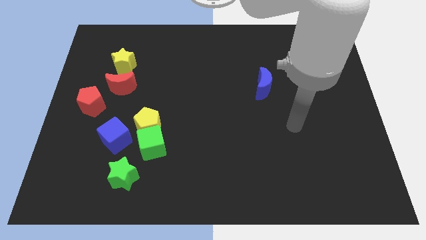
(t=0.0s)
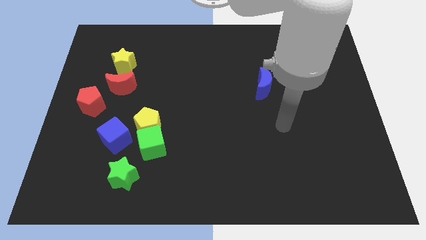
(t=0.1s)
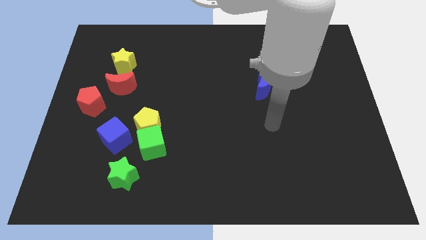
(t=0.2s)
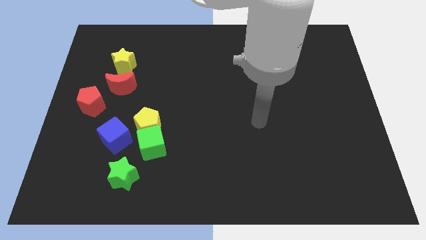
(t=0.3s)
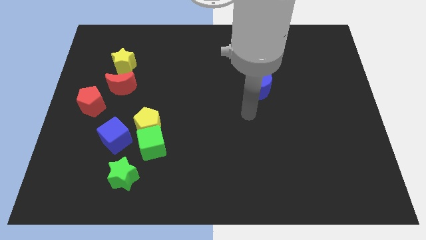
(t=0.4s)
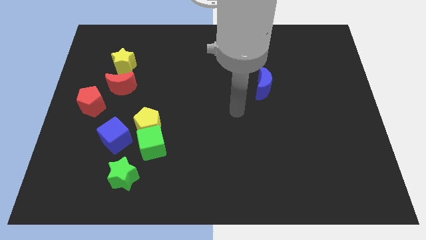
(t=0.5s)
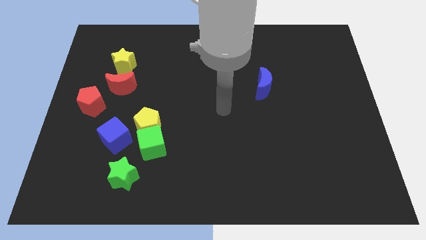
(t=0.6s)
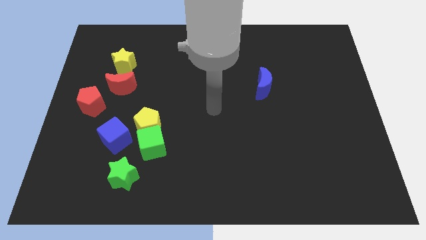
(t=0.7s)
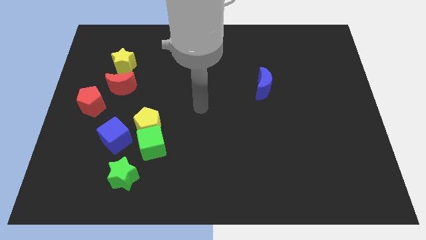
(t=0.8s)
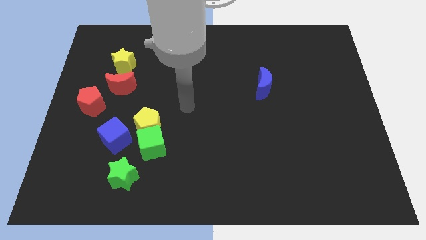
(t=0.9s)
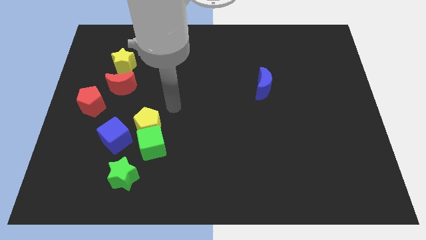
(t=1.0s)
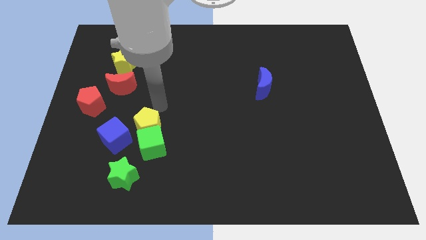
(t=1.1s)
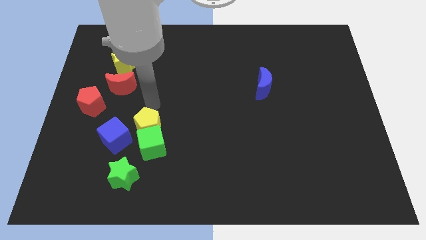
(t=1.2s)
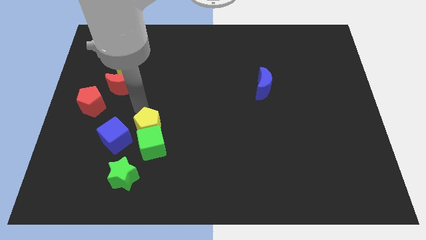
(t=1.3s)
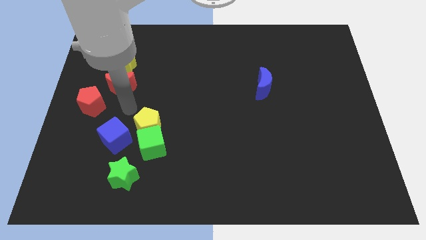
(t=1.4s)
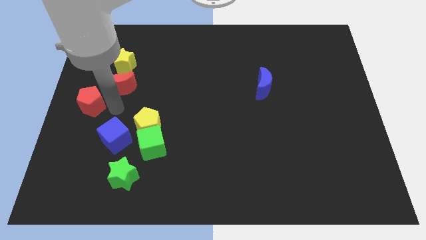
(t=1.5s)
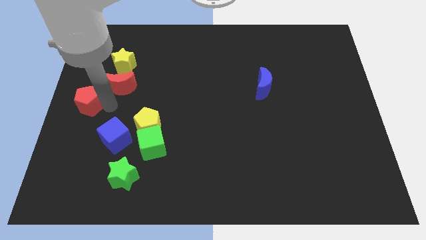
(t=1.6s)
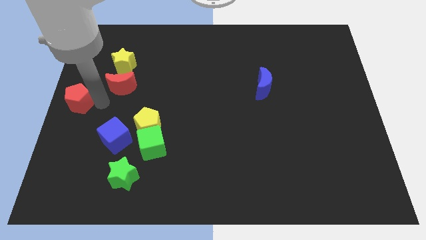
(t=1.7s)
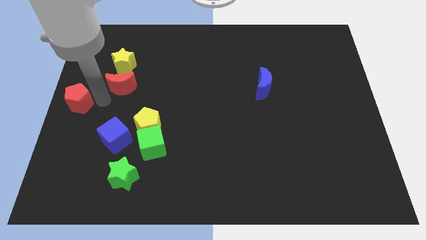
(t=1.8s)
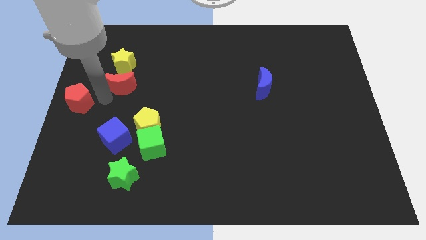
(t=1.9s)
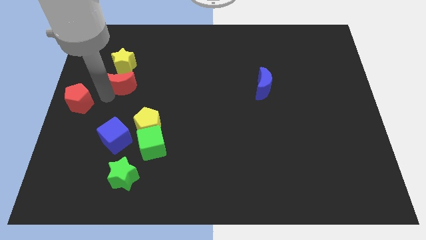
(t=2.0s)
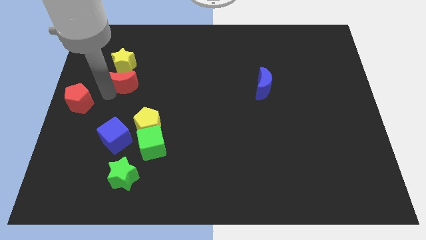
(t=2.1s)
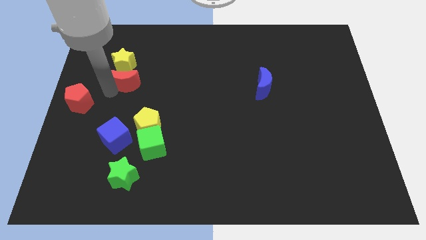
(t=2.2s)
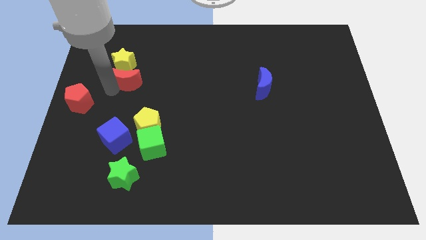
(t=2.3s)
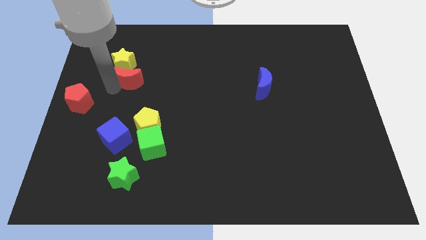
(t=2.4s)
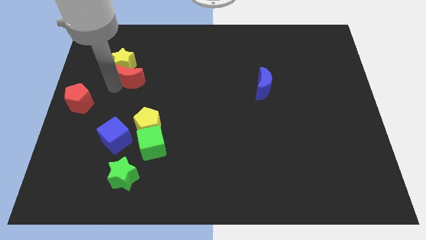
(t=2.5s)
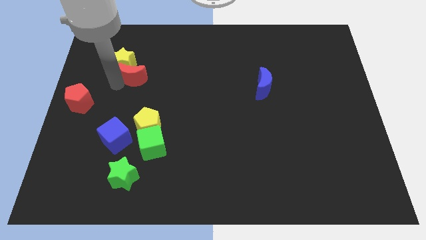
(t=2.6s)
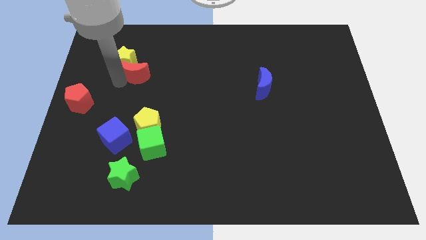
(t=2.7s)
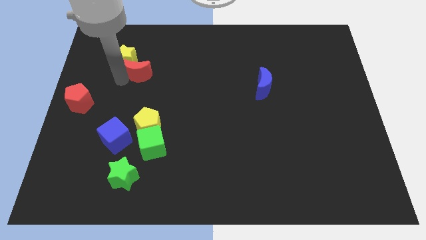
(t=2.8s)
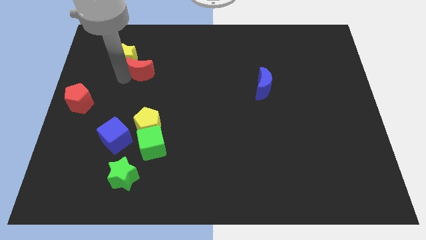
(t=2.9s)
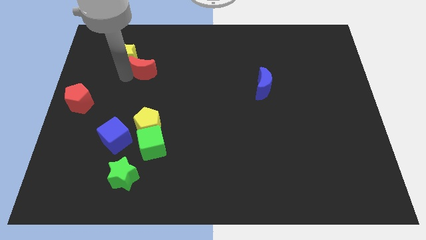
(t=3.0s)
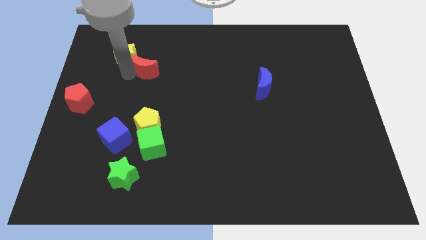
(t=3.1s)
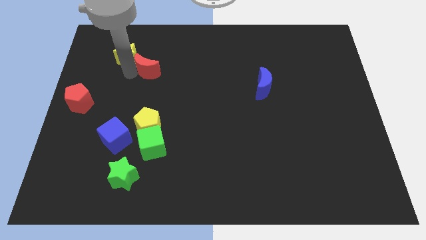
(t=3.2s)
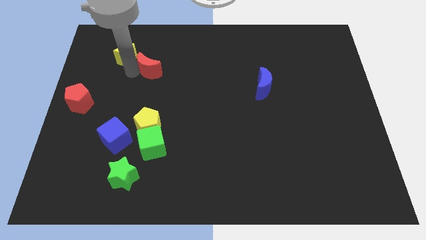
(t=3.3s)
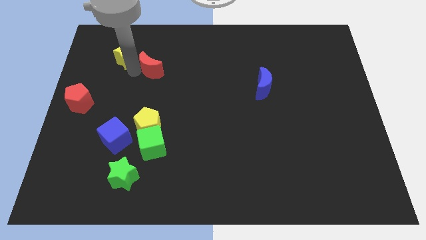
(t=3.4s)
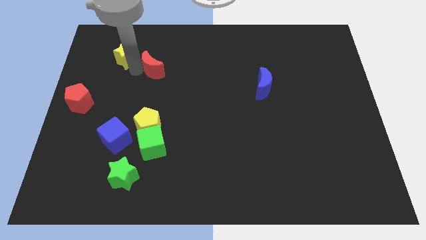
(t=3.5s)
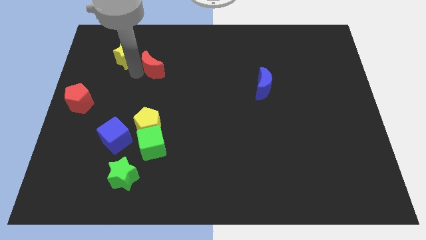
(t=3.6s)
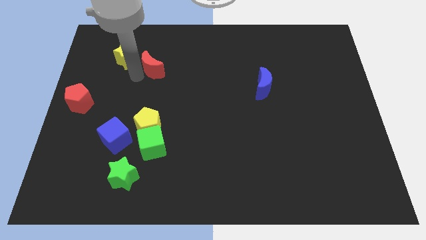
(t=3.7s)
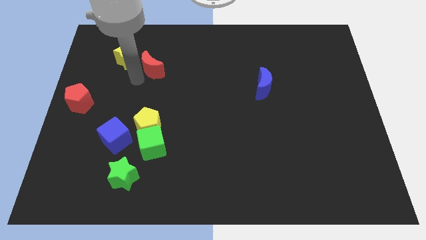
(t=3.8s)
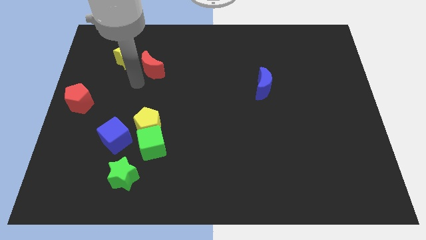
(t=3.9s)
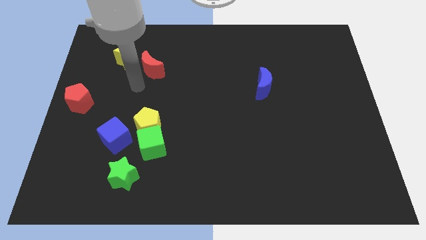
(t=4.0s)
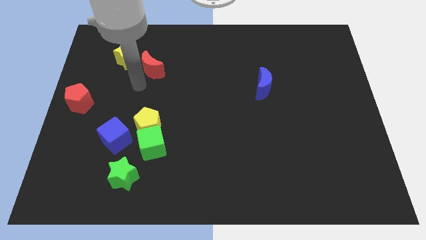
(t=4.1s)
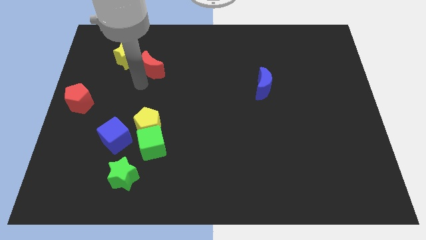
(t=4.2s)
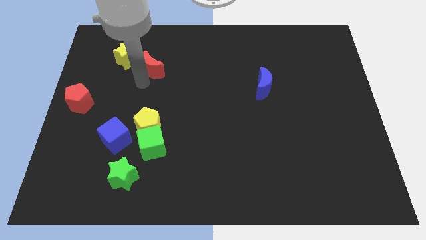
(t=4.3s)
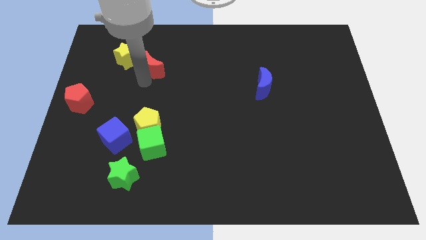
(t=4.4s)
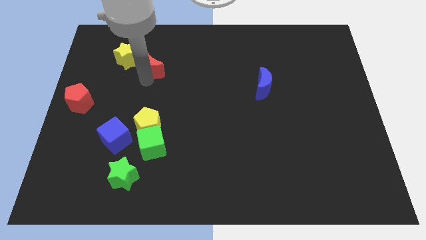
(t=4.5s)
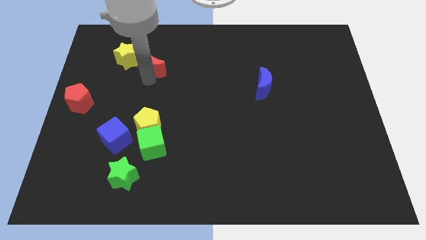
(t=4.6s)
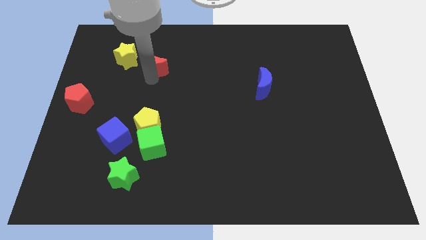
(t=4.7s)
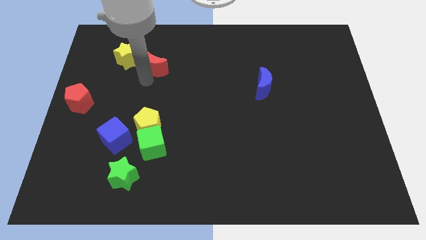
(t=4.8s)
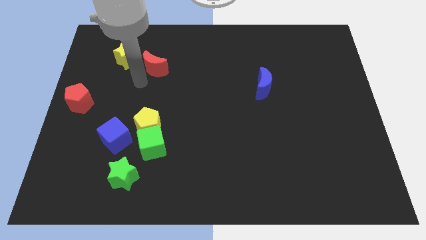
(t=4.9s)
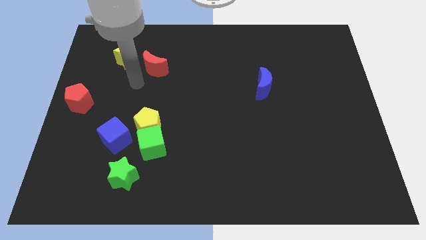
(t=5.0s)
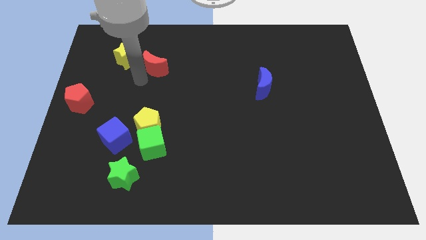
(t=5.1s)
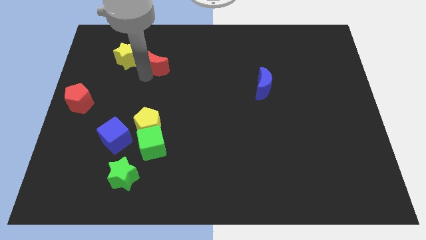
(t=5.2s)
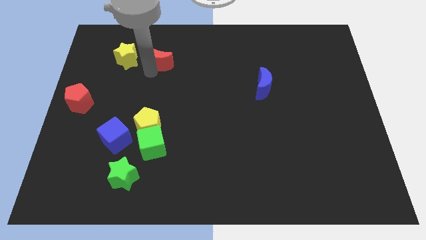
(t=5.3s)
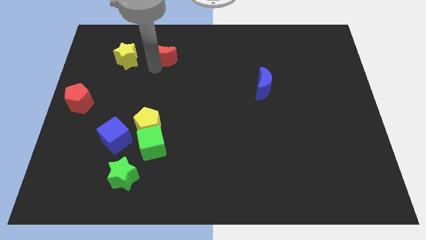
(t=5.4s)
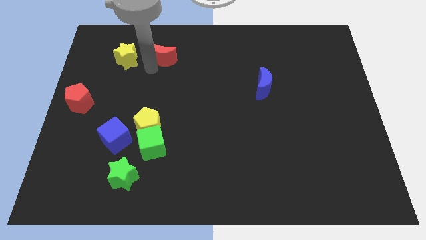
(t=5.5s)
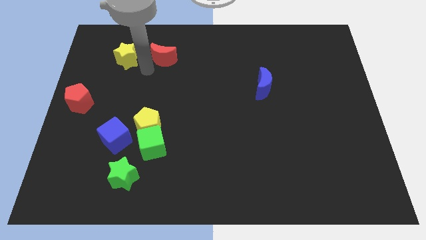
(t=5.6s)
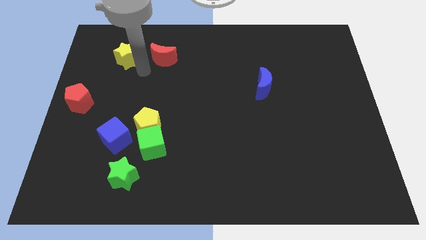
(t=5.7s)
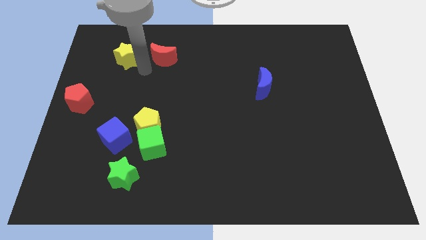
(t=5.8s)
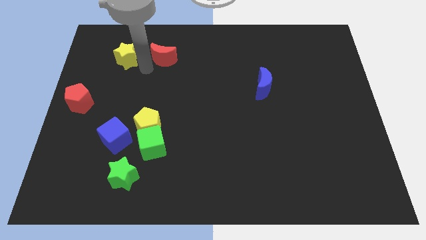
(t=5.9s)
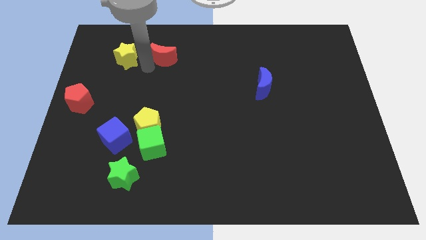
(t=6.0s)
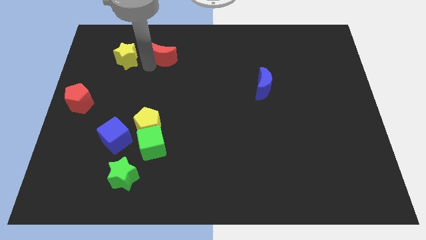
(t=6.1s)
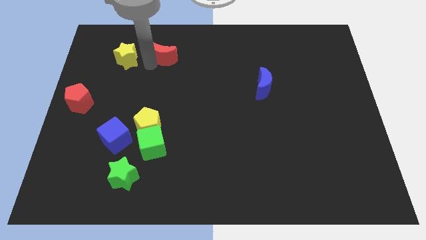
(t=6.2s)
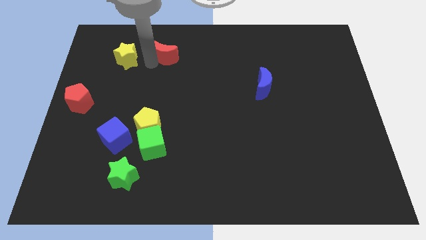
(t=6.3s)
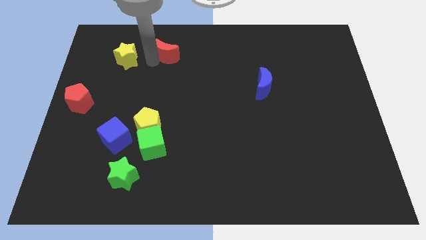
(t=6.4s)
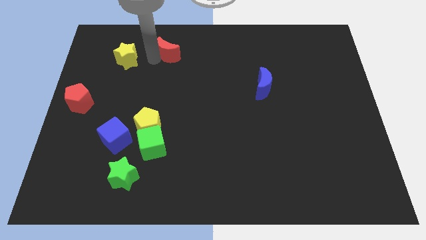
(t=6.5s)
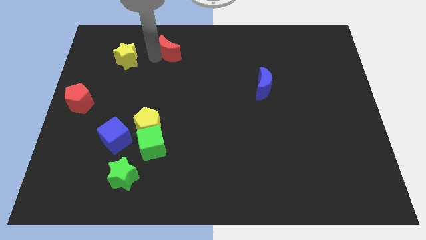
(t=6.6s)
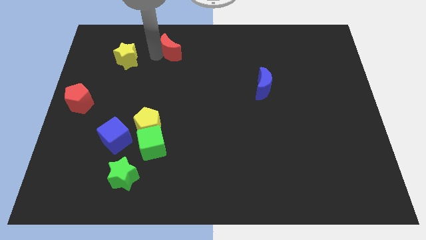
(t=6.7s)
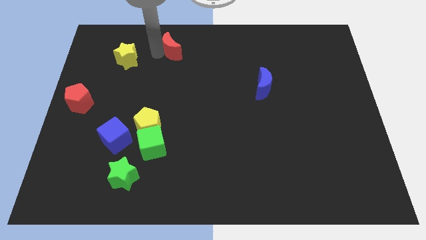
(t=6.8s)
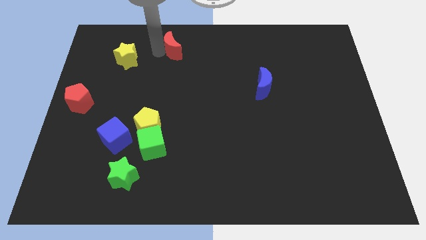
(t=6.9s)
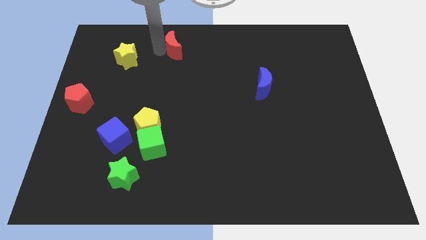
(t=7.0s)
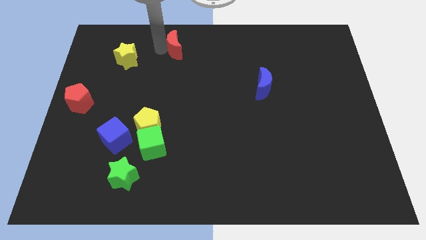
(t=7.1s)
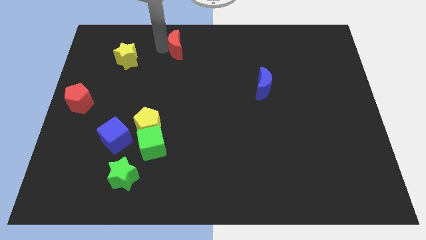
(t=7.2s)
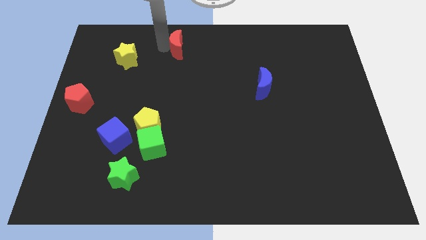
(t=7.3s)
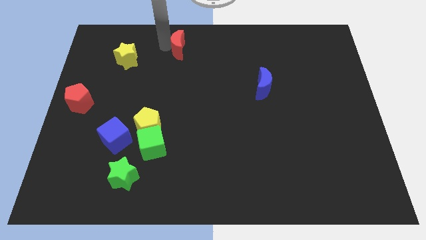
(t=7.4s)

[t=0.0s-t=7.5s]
push the red moon to the top side
